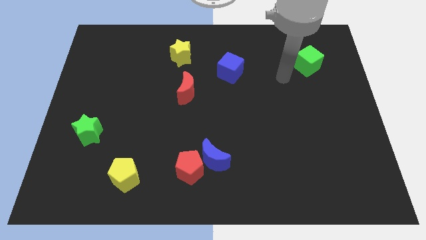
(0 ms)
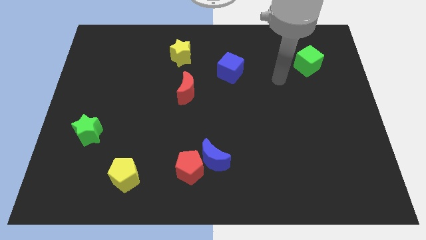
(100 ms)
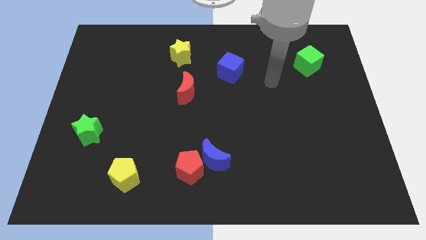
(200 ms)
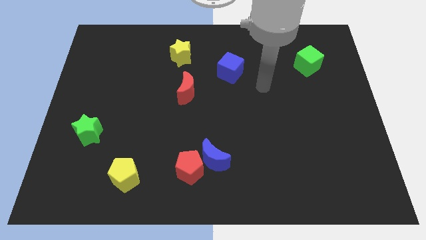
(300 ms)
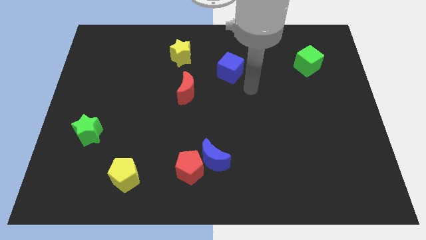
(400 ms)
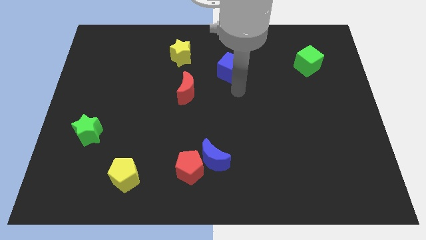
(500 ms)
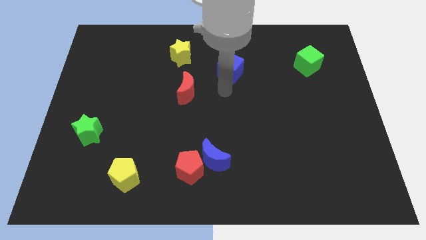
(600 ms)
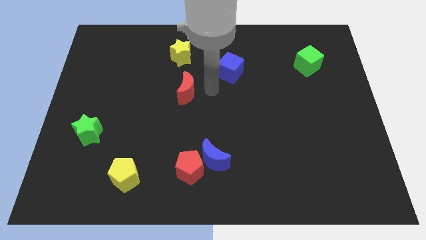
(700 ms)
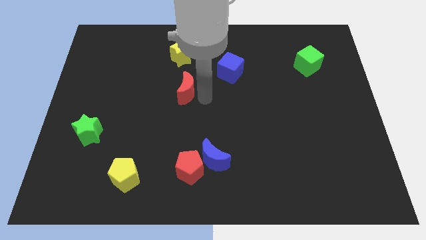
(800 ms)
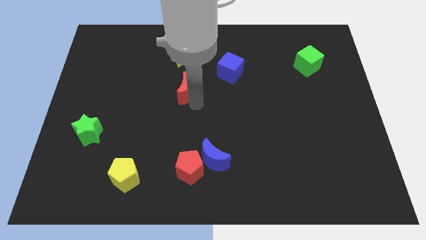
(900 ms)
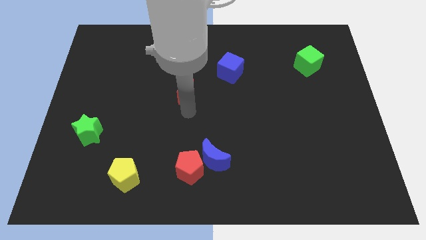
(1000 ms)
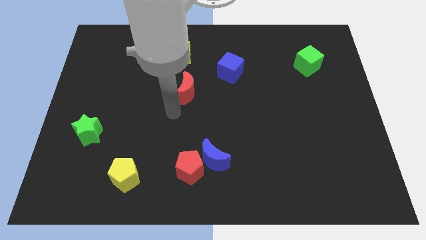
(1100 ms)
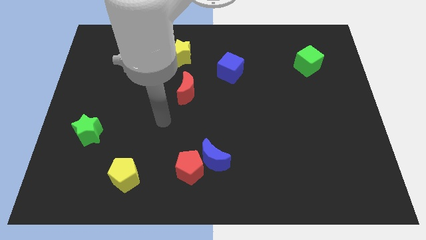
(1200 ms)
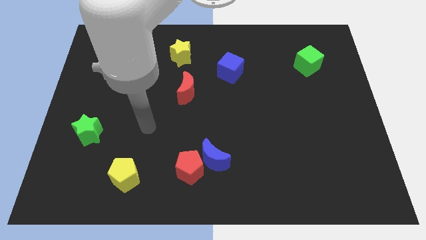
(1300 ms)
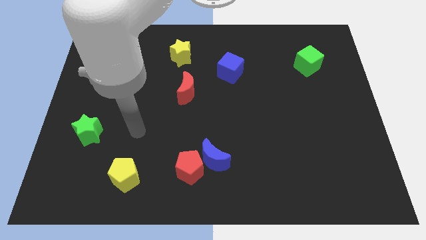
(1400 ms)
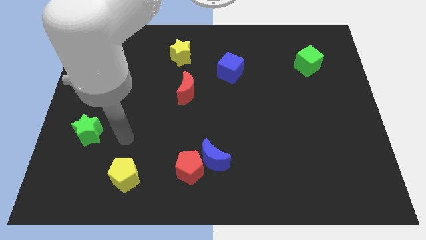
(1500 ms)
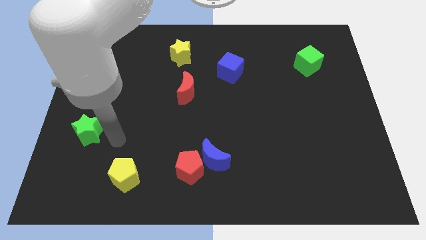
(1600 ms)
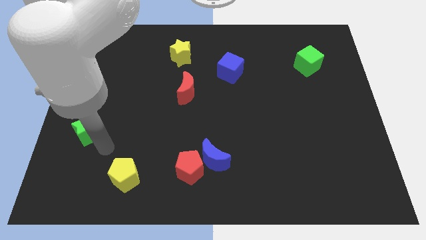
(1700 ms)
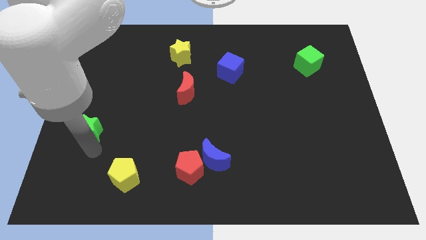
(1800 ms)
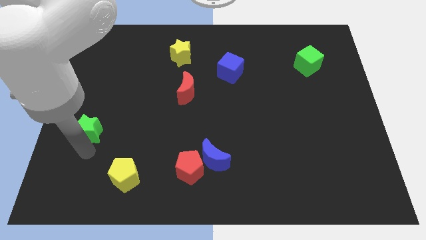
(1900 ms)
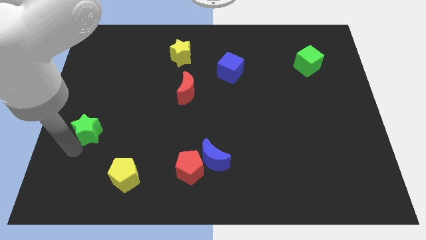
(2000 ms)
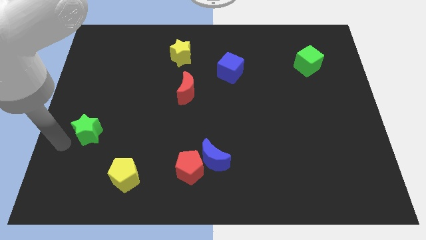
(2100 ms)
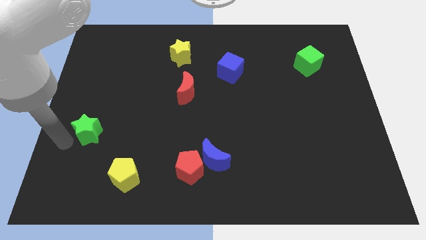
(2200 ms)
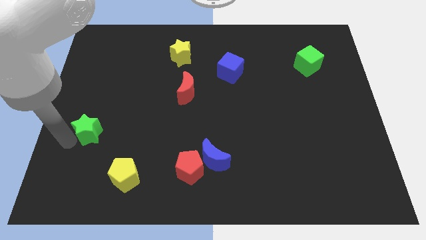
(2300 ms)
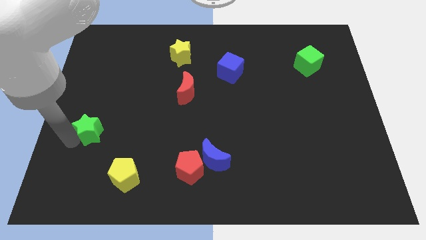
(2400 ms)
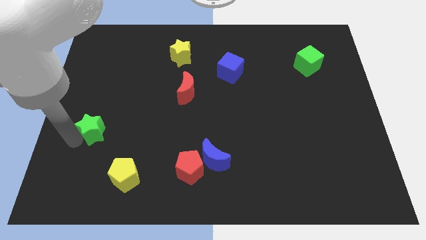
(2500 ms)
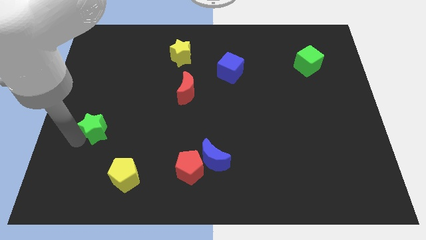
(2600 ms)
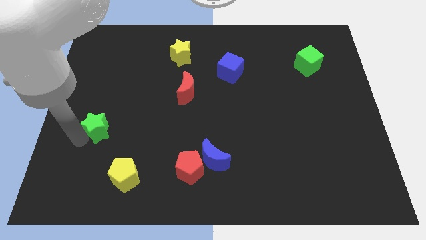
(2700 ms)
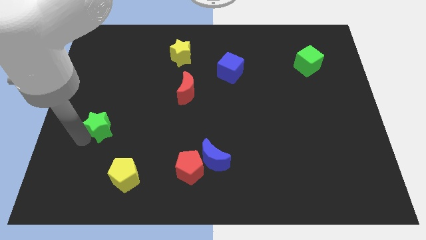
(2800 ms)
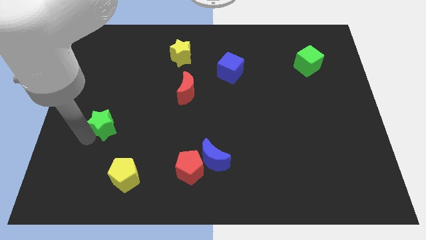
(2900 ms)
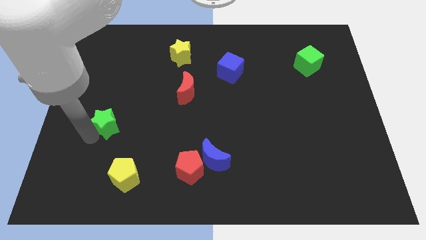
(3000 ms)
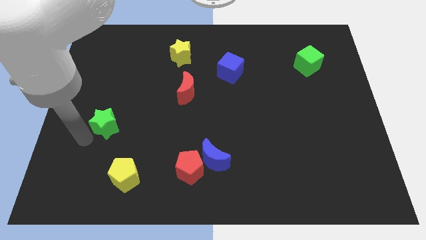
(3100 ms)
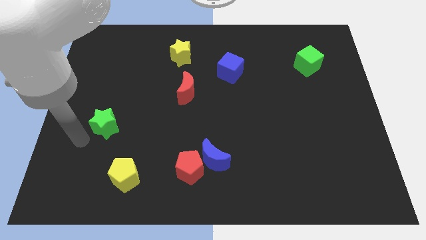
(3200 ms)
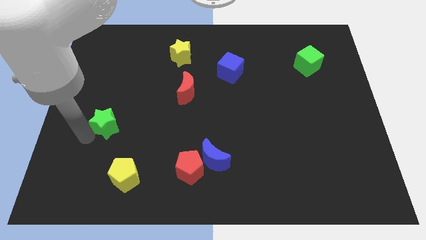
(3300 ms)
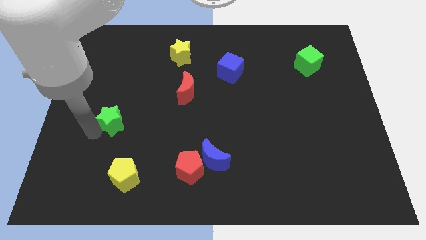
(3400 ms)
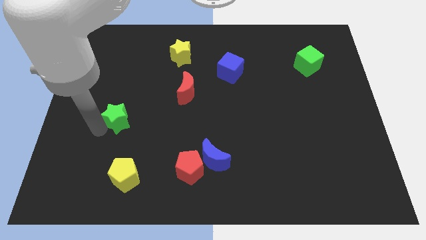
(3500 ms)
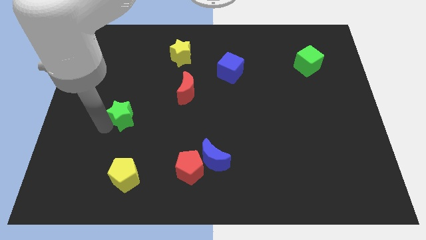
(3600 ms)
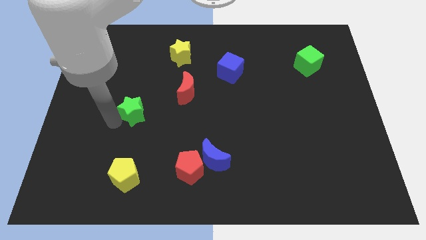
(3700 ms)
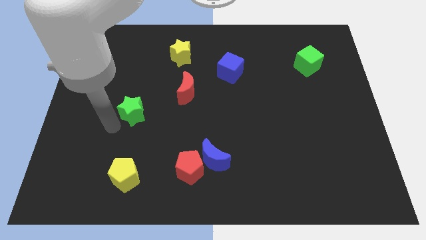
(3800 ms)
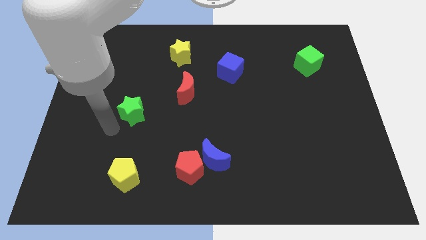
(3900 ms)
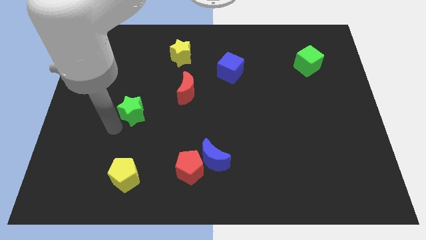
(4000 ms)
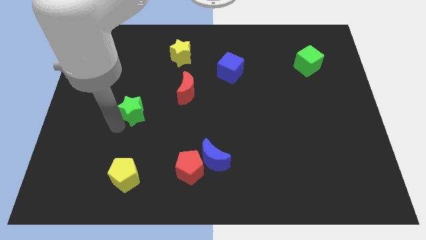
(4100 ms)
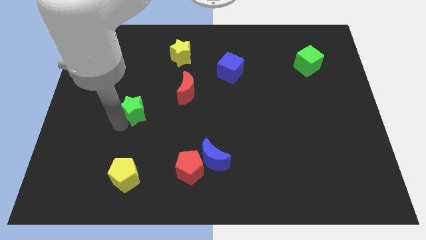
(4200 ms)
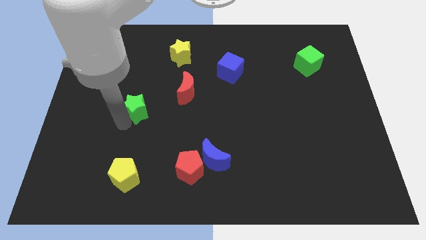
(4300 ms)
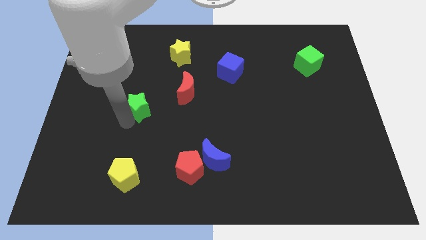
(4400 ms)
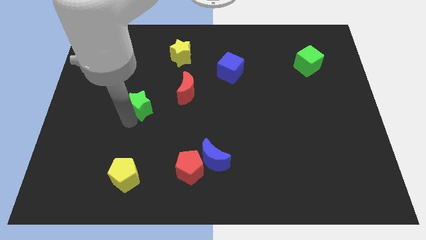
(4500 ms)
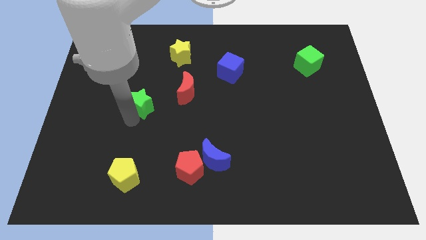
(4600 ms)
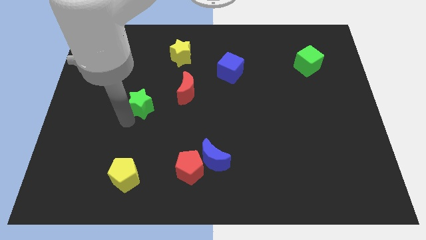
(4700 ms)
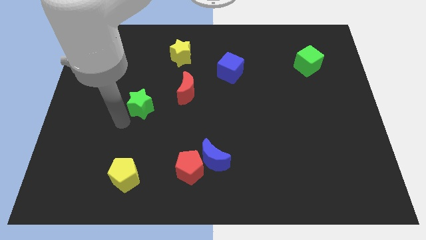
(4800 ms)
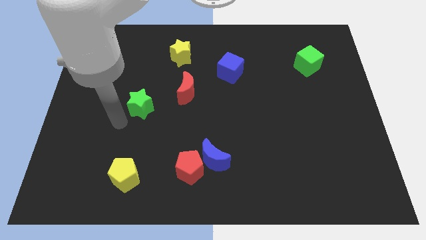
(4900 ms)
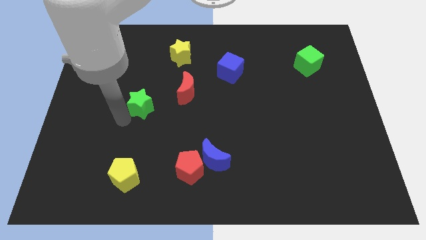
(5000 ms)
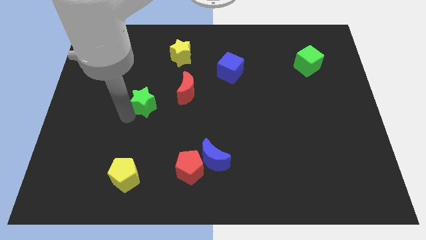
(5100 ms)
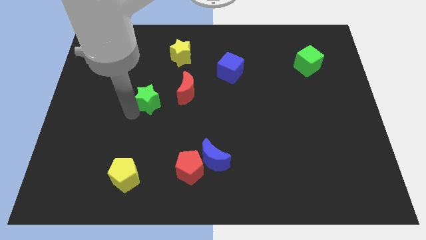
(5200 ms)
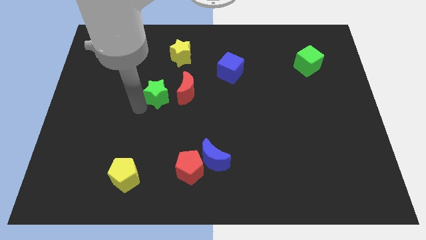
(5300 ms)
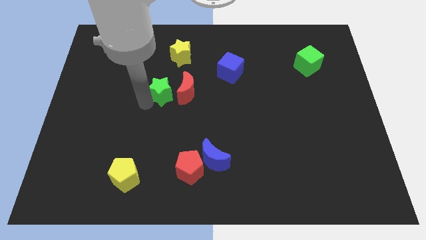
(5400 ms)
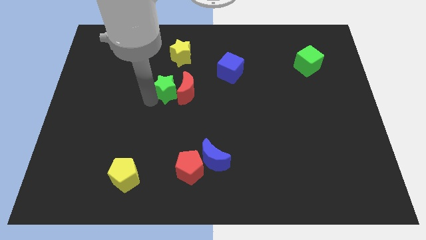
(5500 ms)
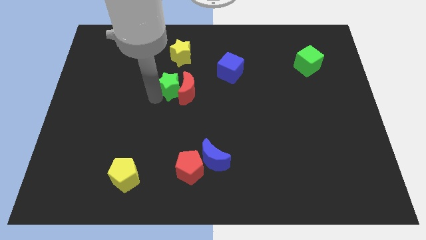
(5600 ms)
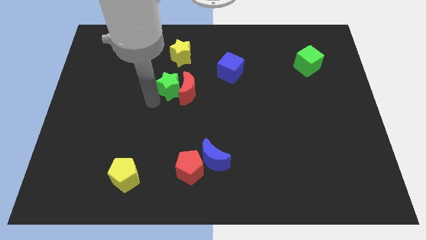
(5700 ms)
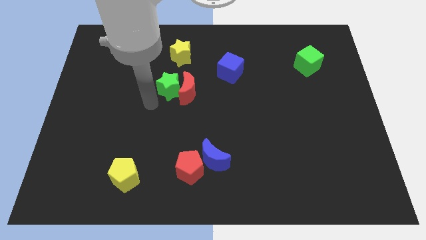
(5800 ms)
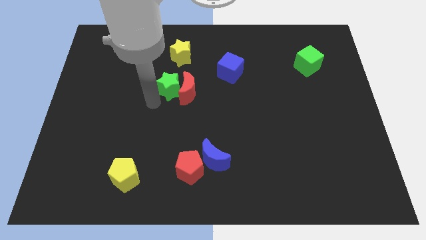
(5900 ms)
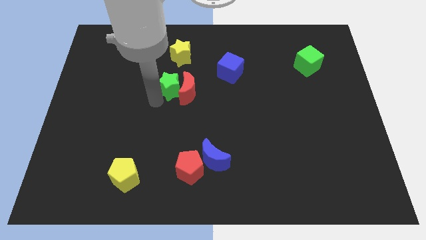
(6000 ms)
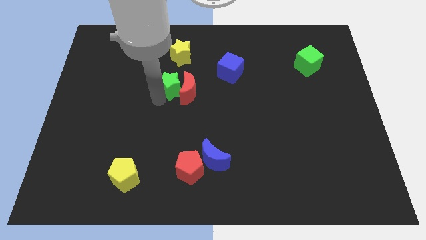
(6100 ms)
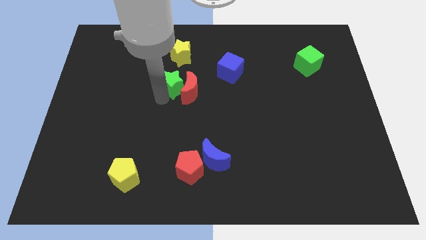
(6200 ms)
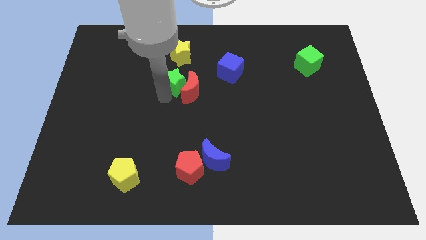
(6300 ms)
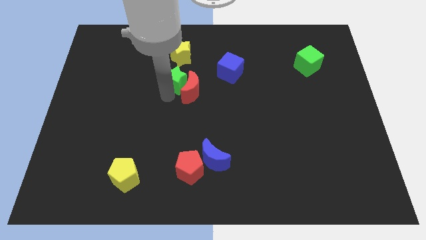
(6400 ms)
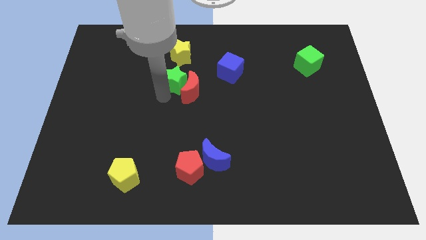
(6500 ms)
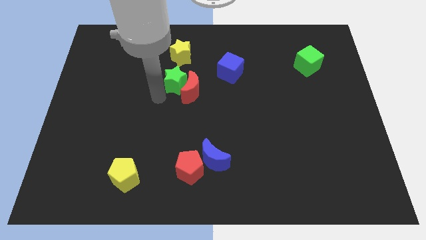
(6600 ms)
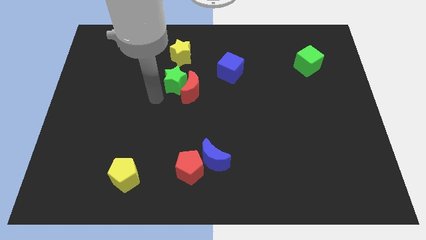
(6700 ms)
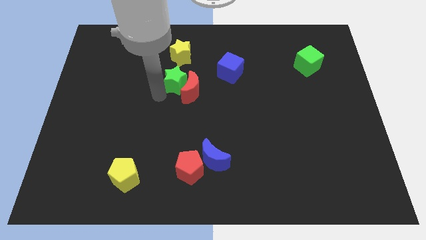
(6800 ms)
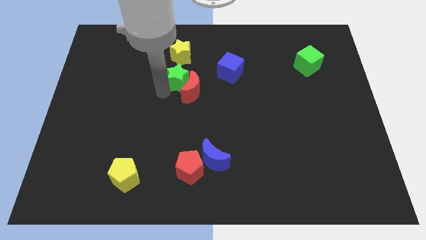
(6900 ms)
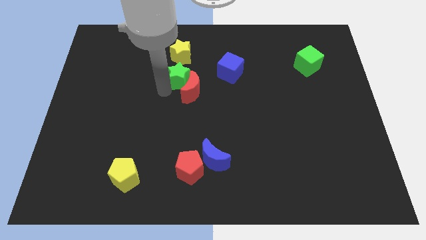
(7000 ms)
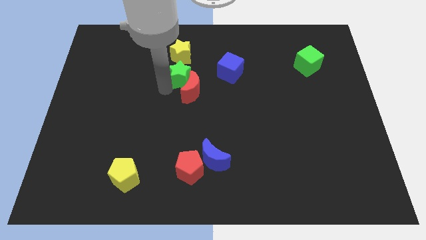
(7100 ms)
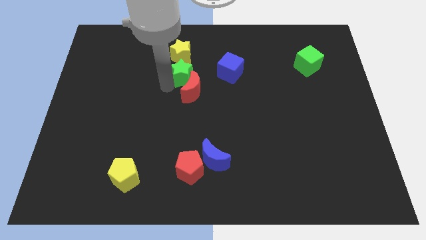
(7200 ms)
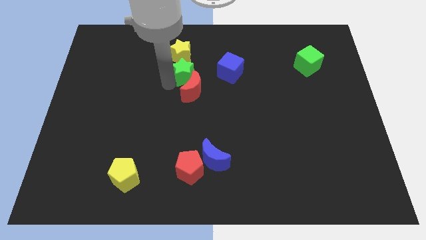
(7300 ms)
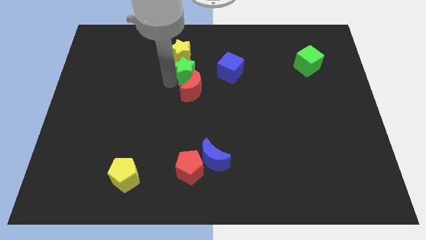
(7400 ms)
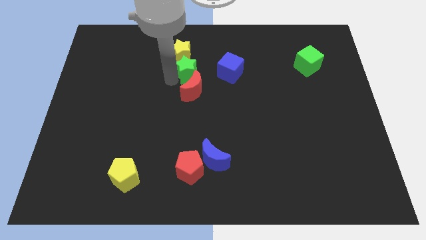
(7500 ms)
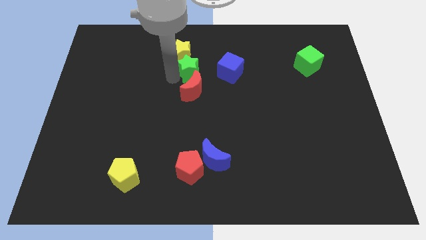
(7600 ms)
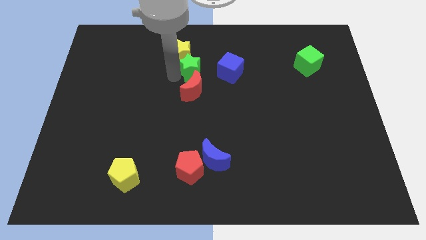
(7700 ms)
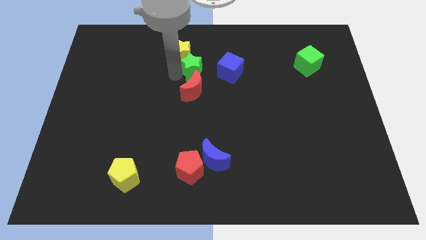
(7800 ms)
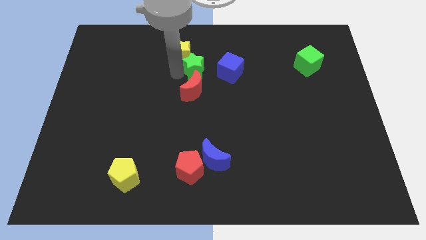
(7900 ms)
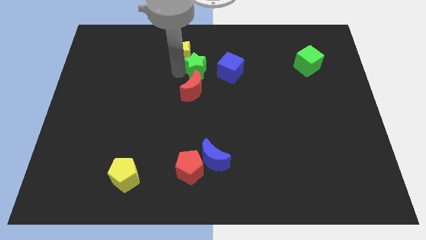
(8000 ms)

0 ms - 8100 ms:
slide the green star just right of the yellow star
